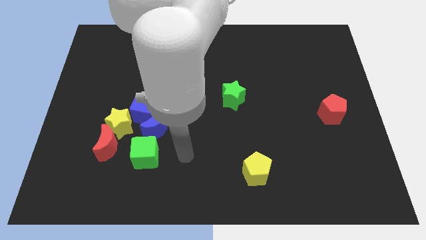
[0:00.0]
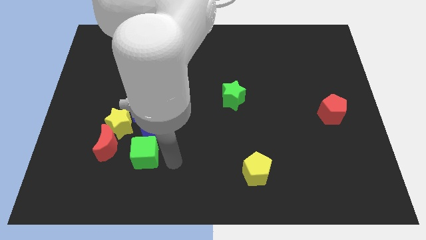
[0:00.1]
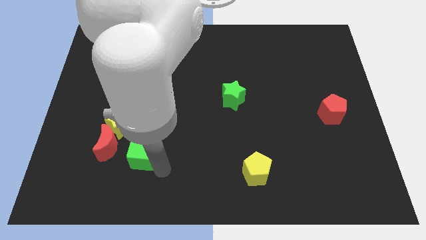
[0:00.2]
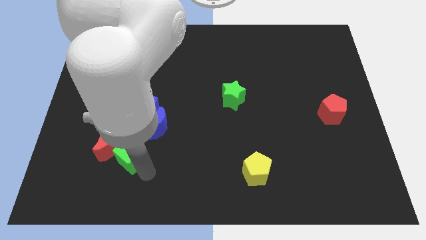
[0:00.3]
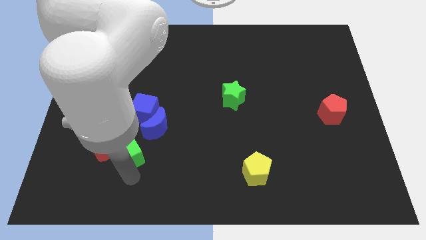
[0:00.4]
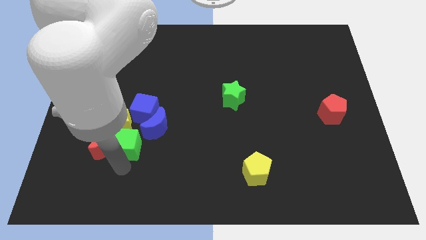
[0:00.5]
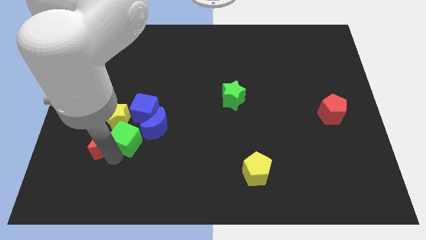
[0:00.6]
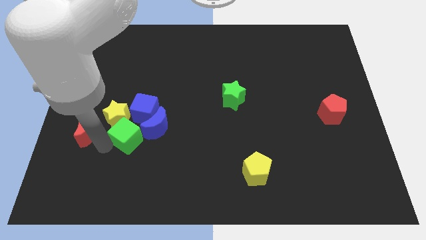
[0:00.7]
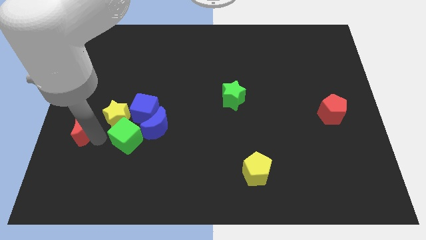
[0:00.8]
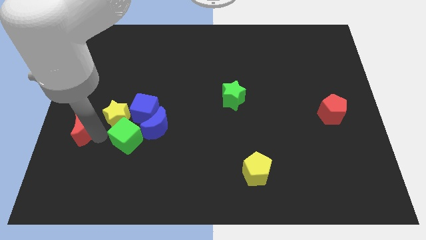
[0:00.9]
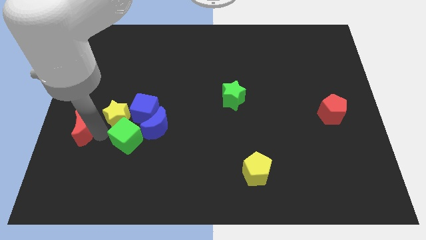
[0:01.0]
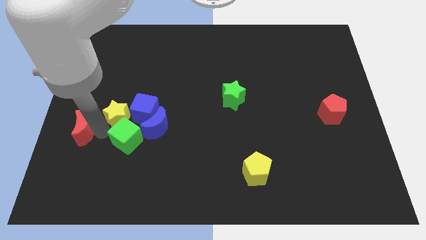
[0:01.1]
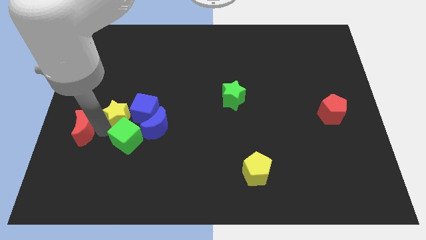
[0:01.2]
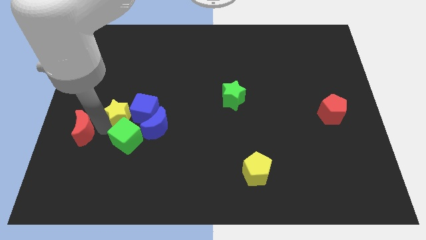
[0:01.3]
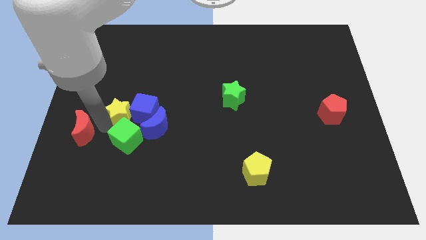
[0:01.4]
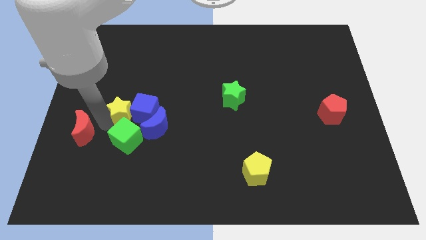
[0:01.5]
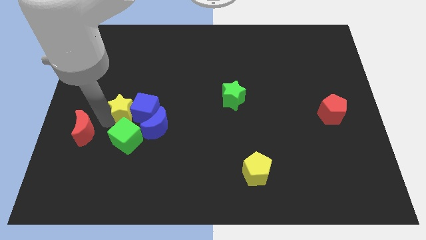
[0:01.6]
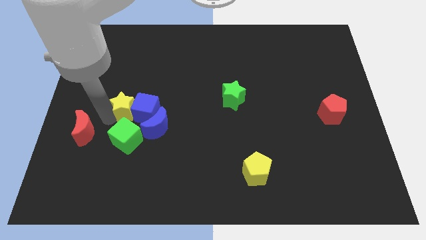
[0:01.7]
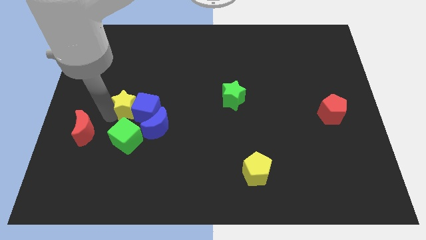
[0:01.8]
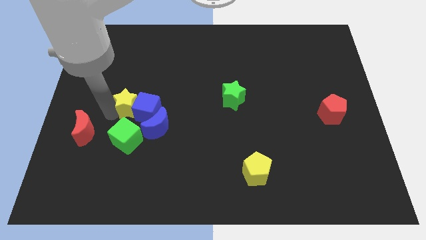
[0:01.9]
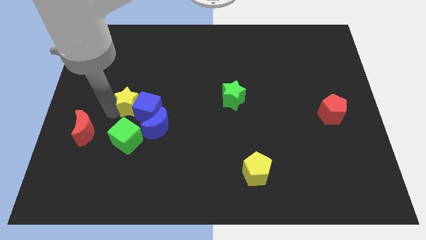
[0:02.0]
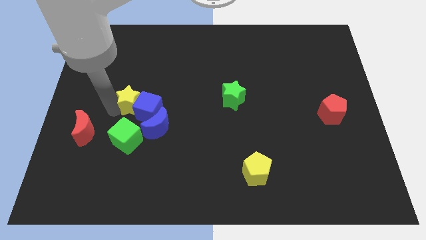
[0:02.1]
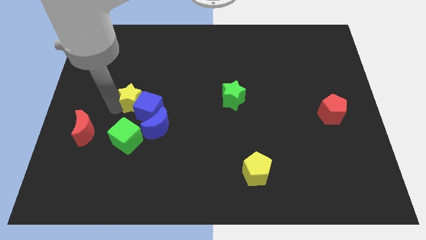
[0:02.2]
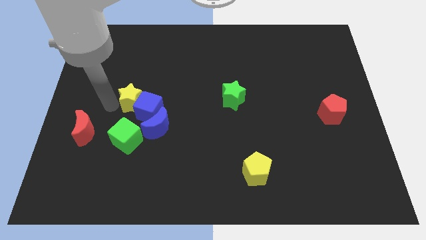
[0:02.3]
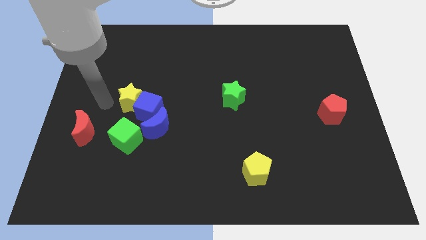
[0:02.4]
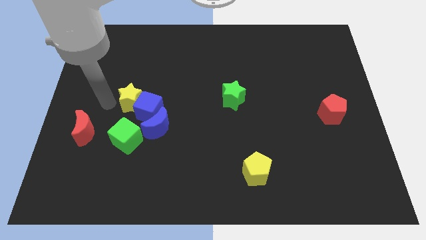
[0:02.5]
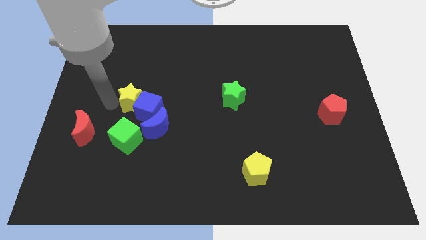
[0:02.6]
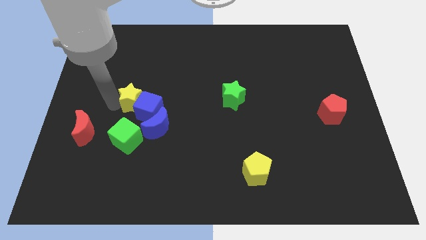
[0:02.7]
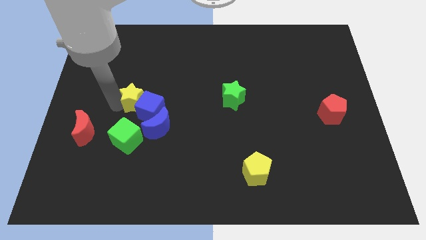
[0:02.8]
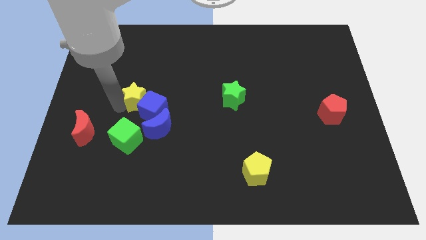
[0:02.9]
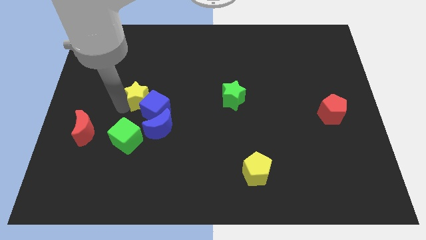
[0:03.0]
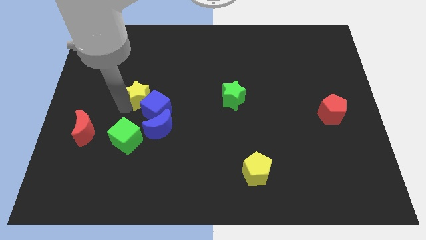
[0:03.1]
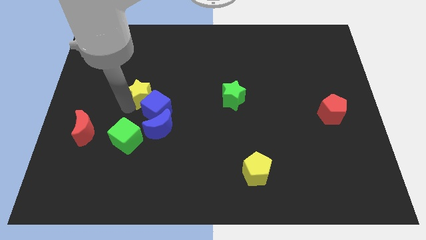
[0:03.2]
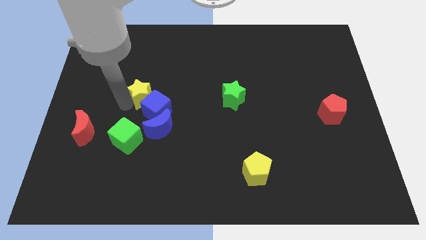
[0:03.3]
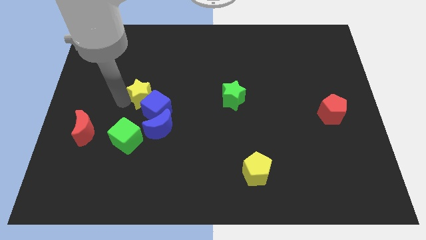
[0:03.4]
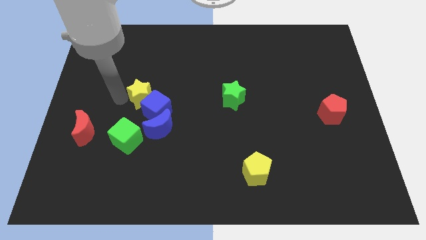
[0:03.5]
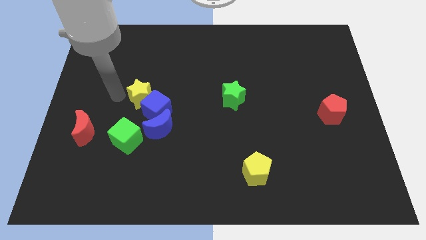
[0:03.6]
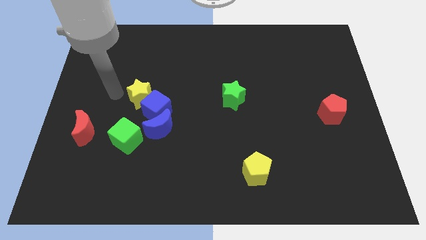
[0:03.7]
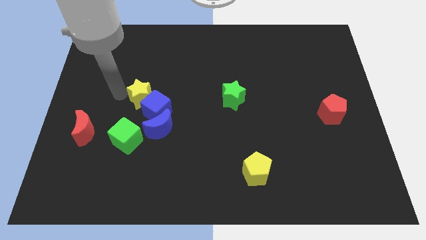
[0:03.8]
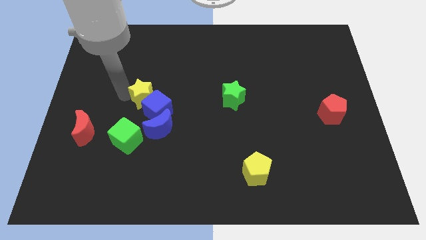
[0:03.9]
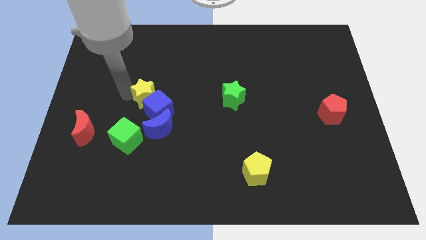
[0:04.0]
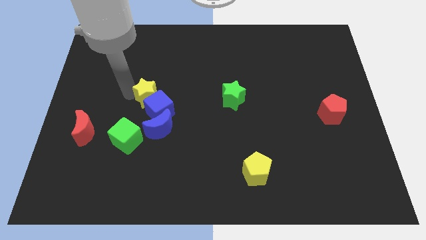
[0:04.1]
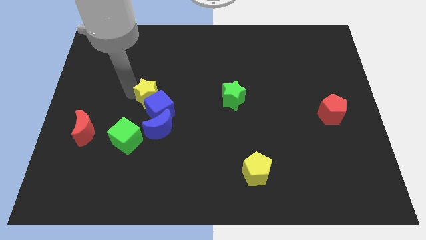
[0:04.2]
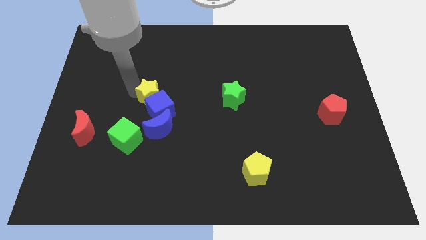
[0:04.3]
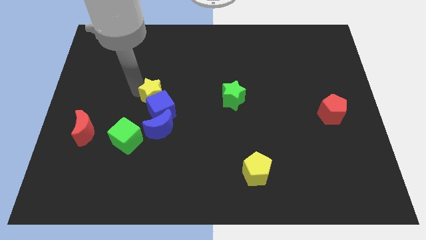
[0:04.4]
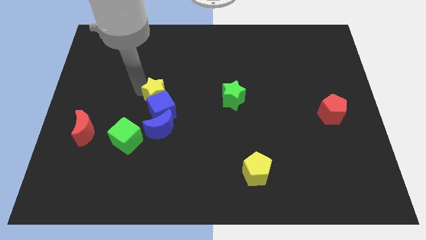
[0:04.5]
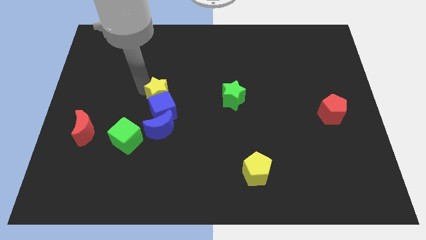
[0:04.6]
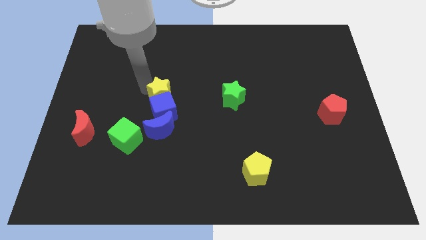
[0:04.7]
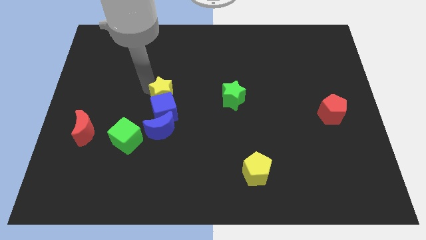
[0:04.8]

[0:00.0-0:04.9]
move the yellow star to the center of the board

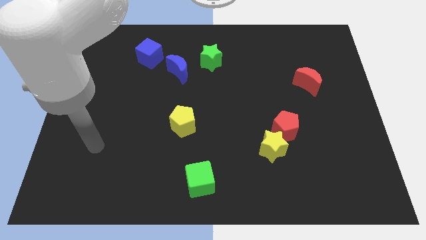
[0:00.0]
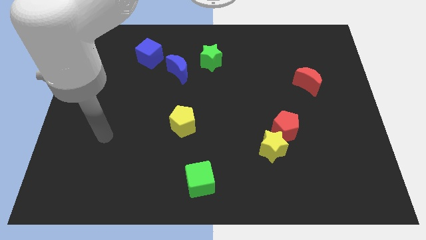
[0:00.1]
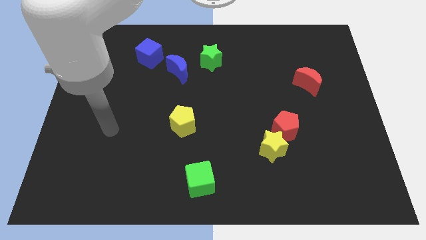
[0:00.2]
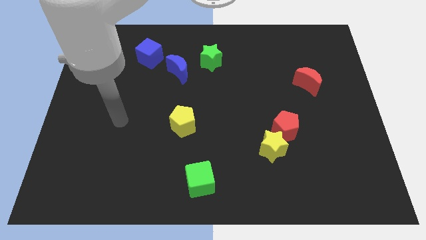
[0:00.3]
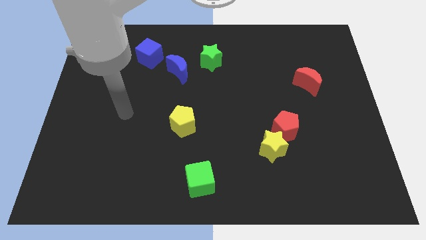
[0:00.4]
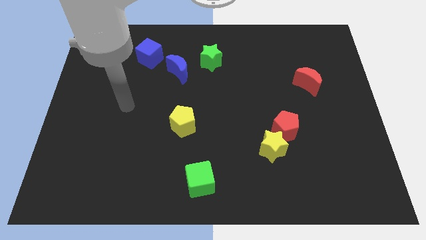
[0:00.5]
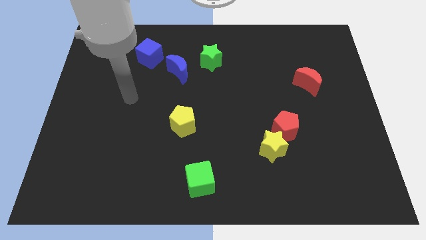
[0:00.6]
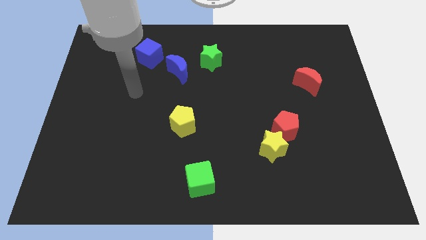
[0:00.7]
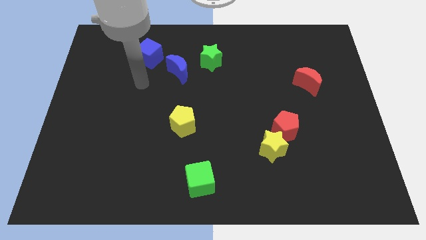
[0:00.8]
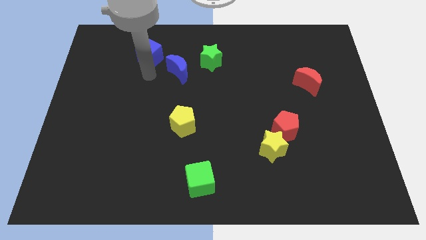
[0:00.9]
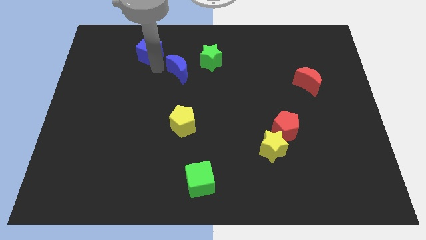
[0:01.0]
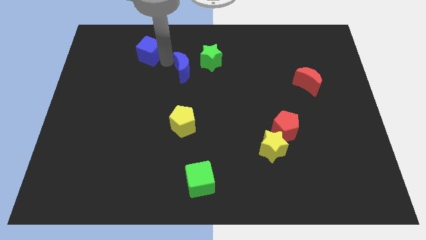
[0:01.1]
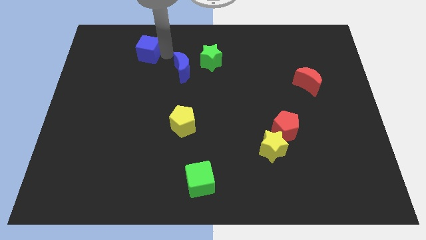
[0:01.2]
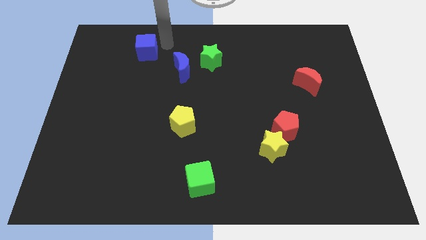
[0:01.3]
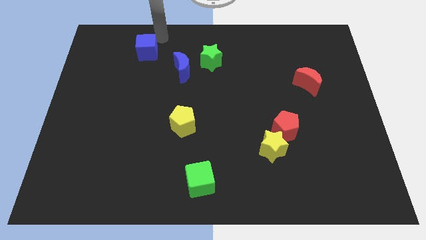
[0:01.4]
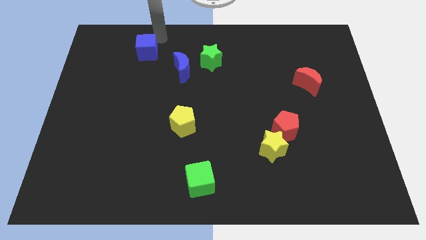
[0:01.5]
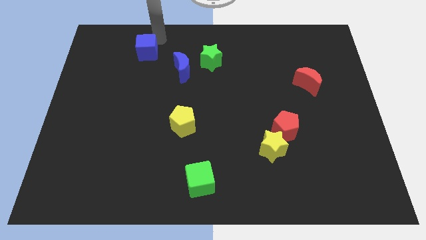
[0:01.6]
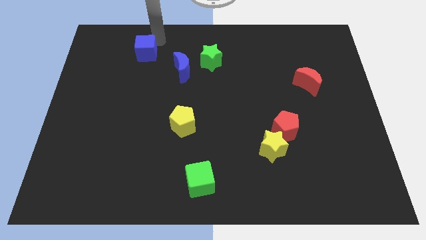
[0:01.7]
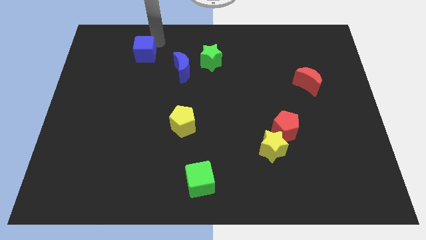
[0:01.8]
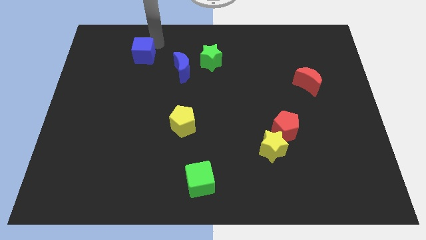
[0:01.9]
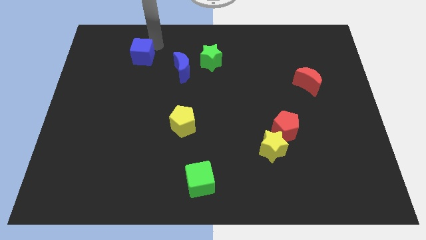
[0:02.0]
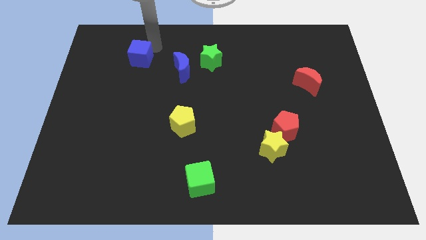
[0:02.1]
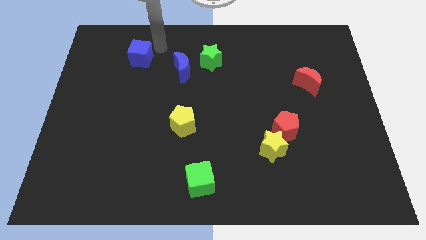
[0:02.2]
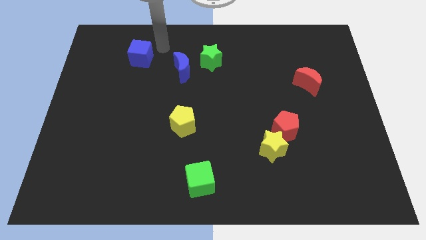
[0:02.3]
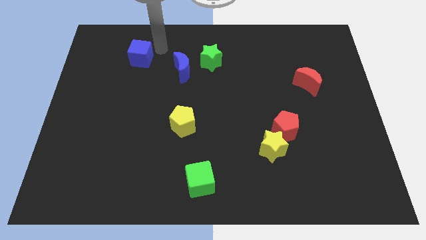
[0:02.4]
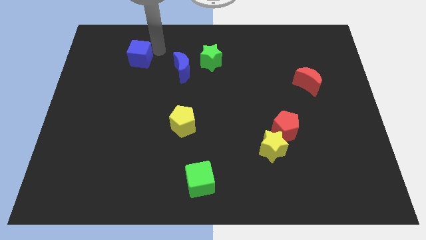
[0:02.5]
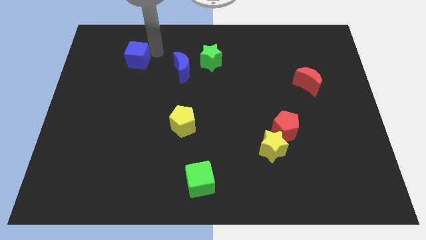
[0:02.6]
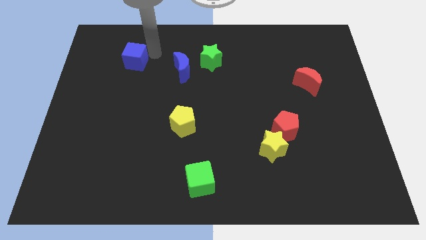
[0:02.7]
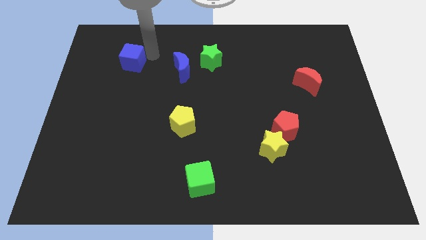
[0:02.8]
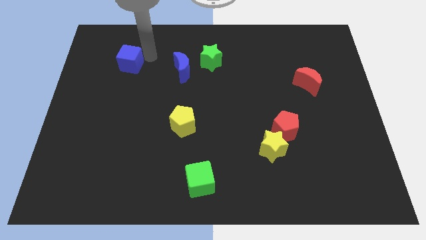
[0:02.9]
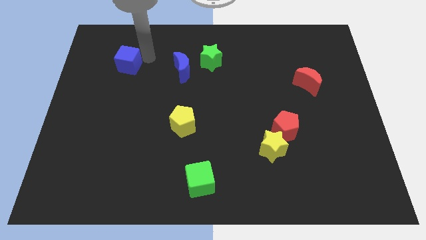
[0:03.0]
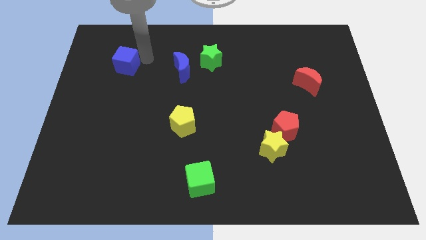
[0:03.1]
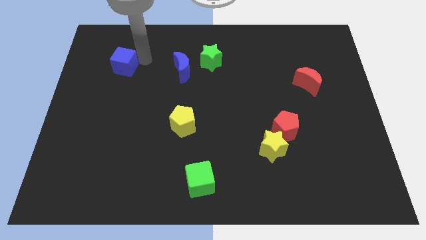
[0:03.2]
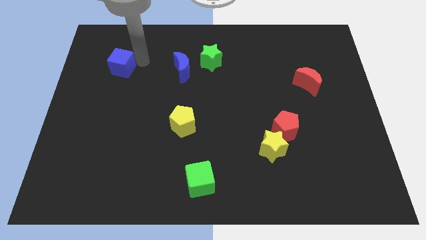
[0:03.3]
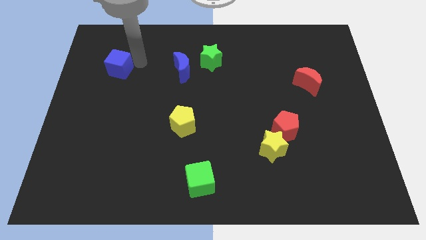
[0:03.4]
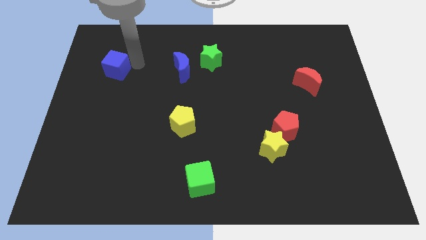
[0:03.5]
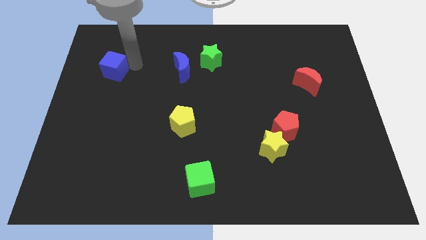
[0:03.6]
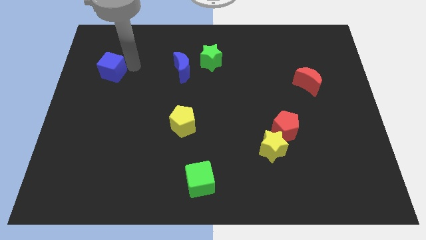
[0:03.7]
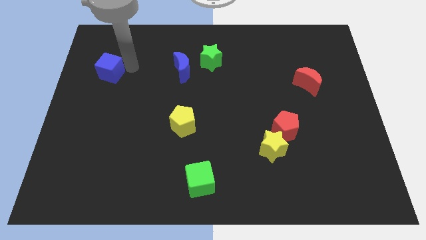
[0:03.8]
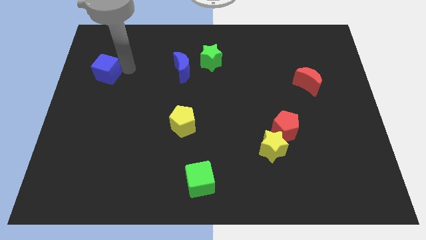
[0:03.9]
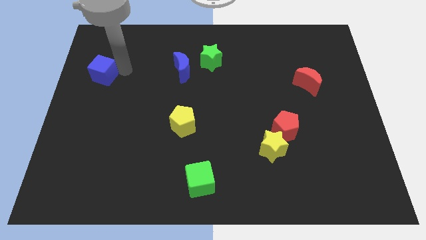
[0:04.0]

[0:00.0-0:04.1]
push the blue cube to the left side of the board
